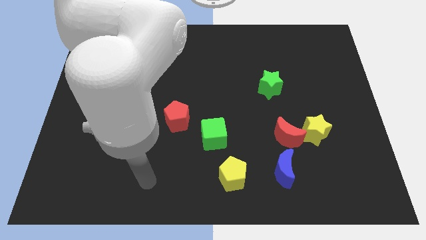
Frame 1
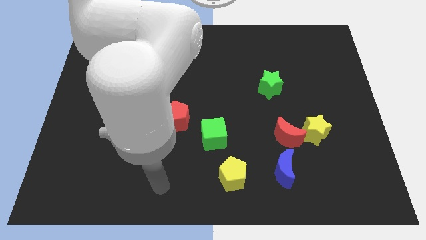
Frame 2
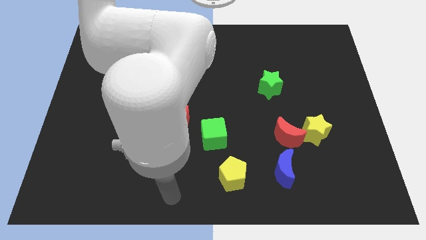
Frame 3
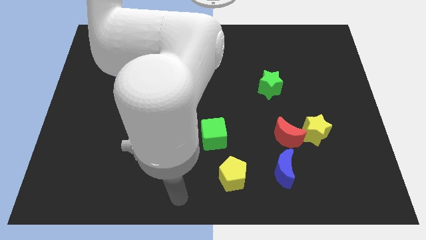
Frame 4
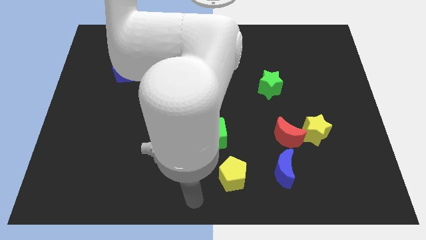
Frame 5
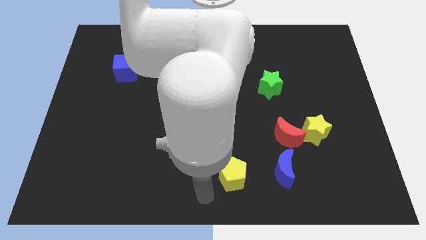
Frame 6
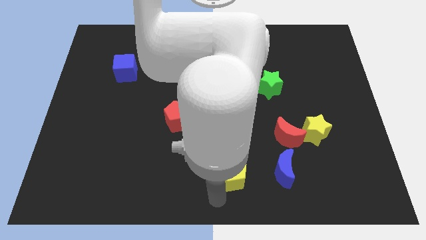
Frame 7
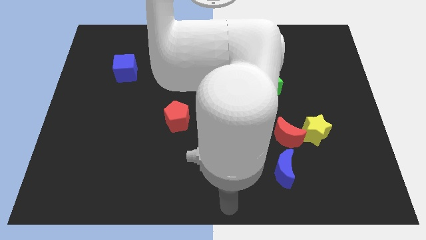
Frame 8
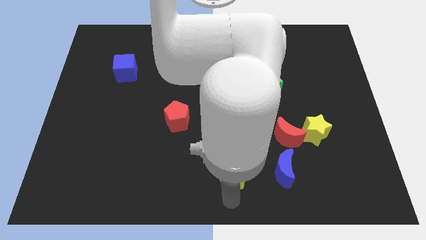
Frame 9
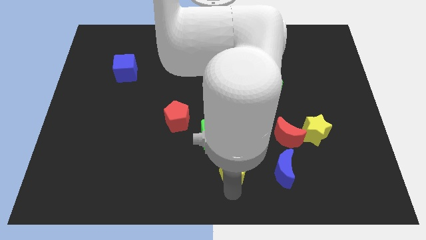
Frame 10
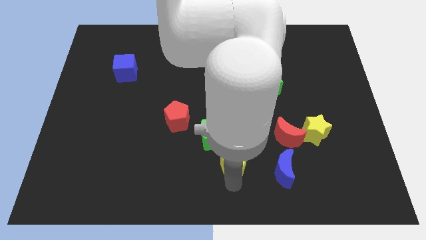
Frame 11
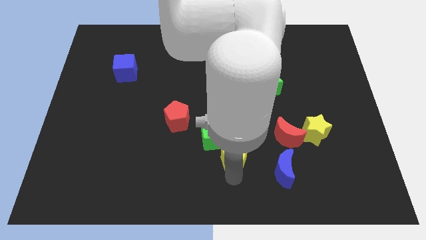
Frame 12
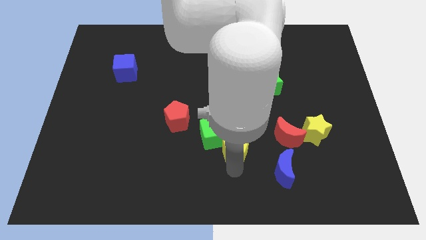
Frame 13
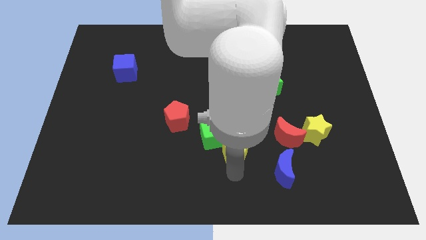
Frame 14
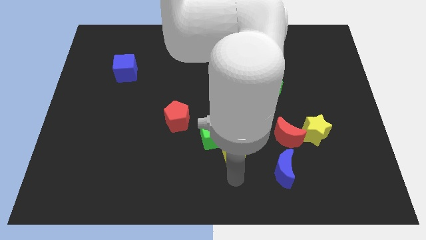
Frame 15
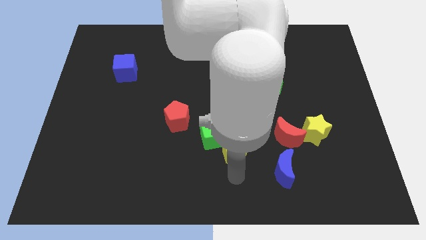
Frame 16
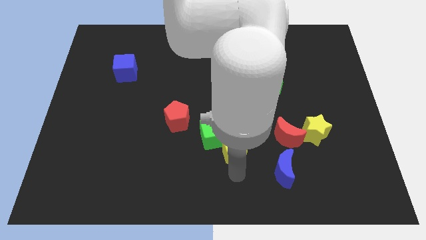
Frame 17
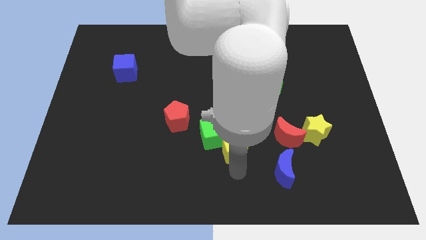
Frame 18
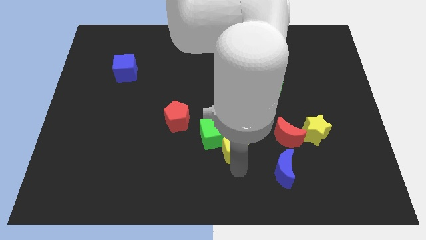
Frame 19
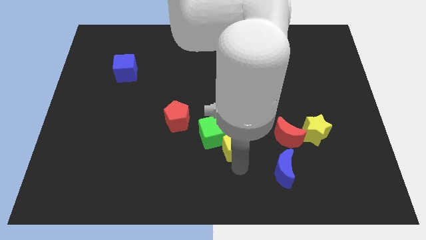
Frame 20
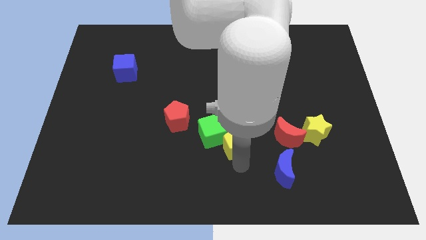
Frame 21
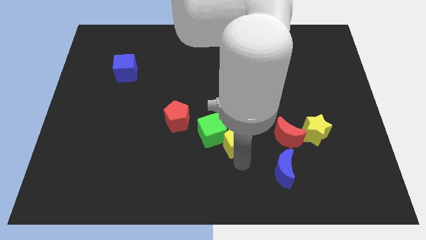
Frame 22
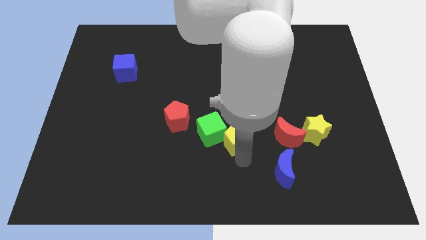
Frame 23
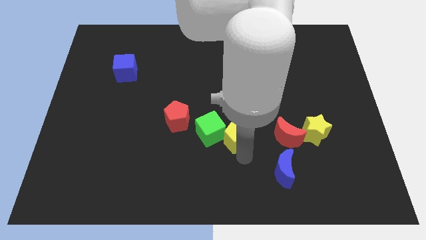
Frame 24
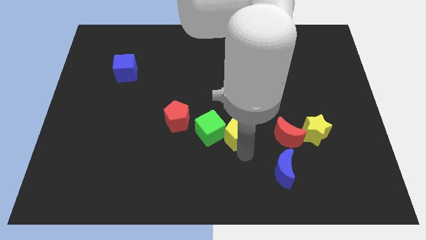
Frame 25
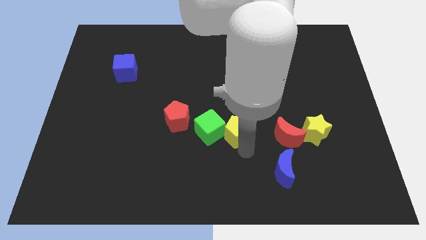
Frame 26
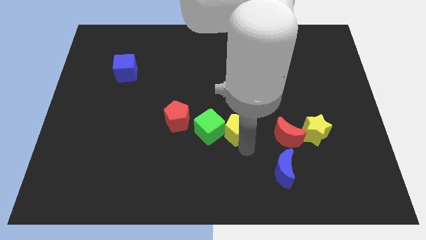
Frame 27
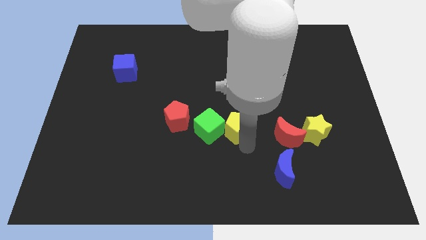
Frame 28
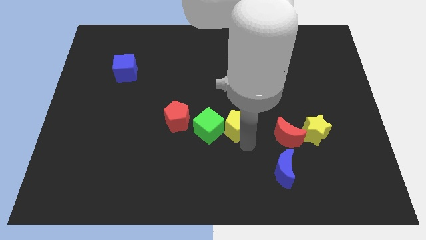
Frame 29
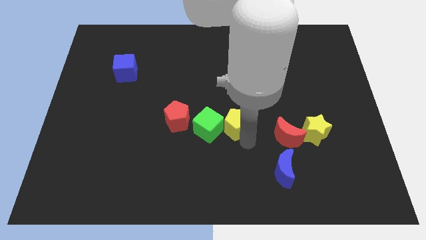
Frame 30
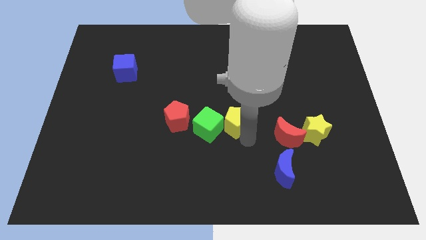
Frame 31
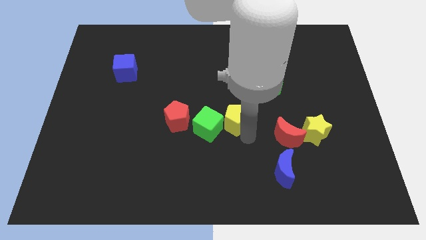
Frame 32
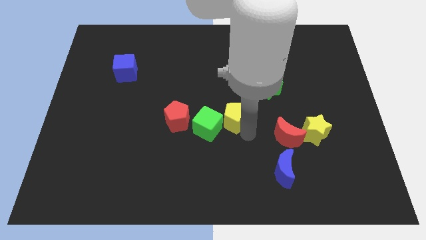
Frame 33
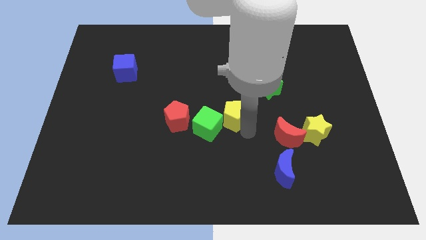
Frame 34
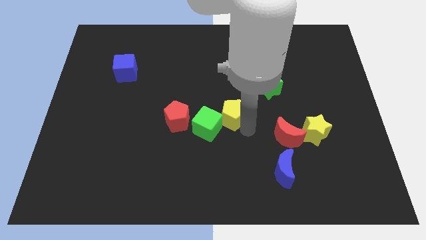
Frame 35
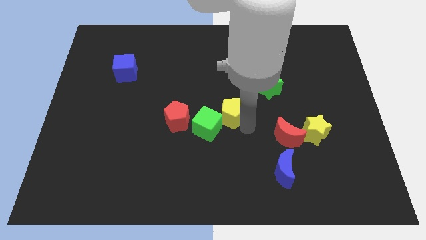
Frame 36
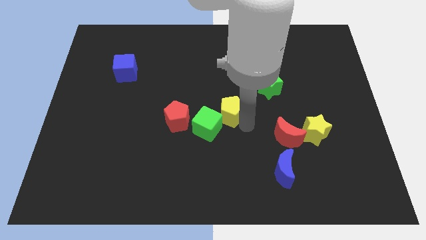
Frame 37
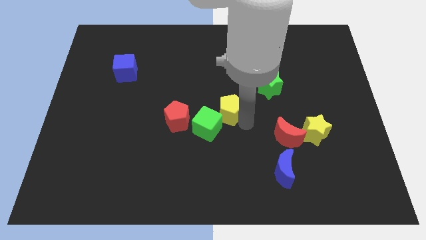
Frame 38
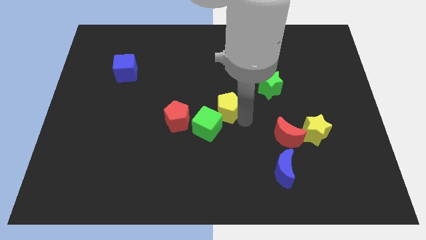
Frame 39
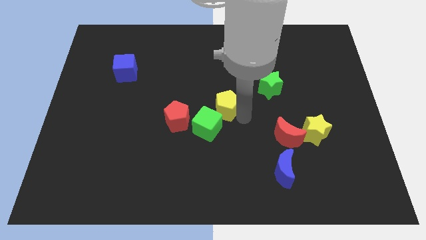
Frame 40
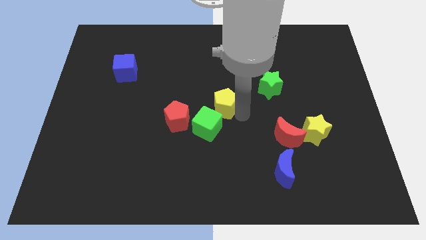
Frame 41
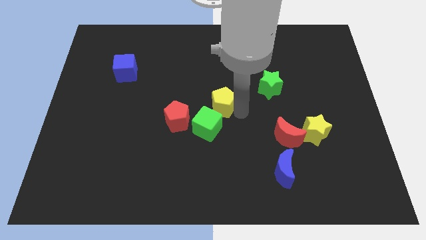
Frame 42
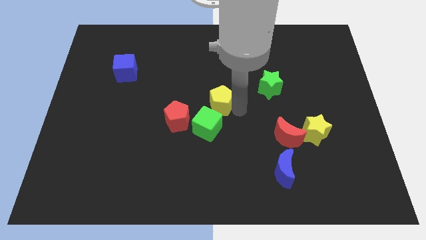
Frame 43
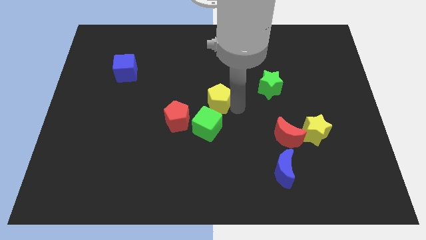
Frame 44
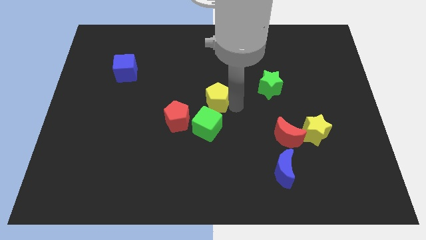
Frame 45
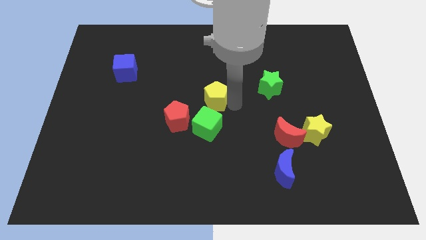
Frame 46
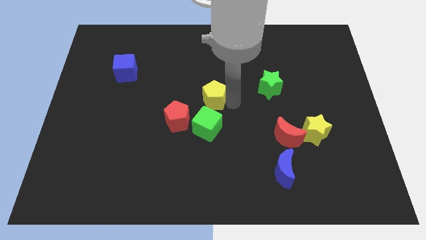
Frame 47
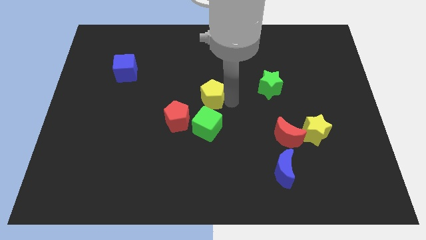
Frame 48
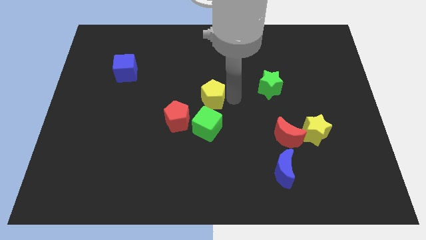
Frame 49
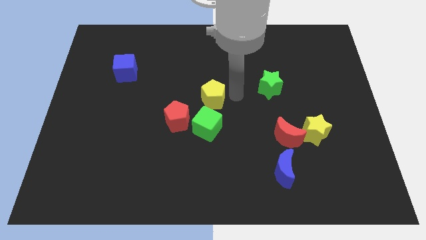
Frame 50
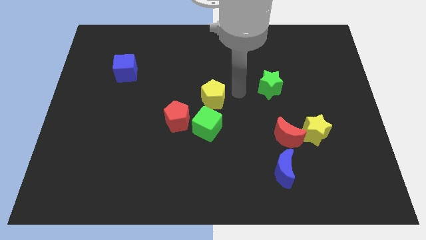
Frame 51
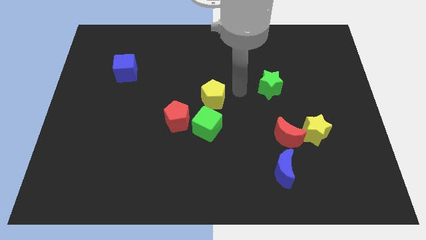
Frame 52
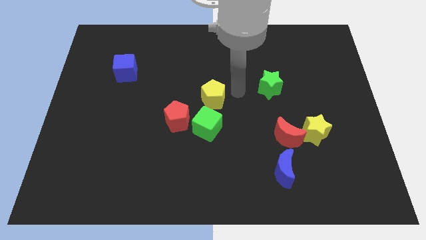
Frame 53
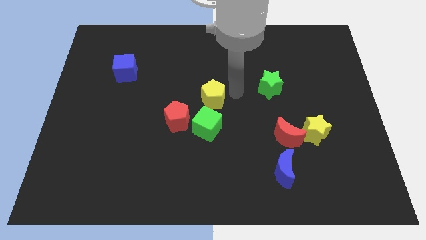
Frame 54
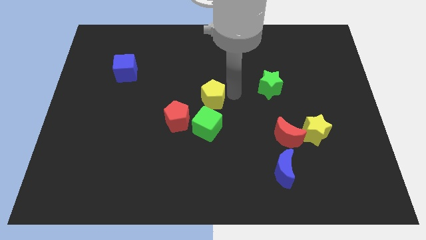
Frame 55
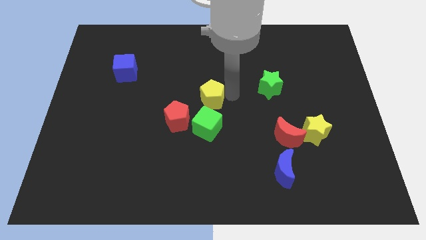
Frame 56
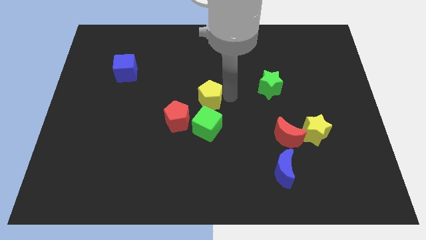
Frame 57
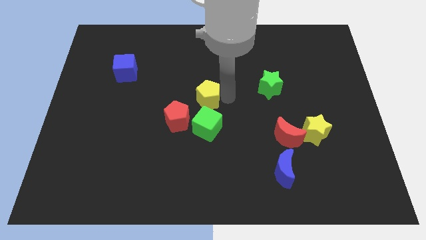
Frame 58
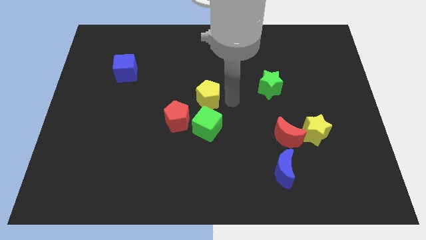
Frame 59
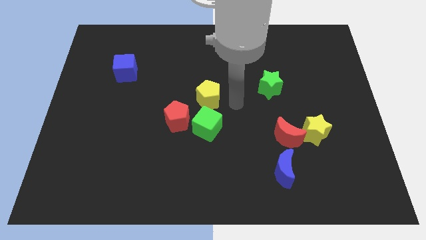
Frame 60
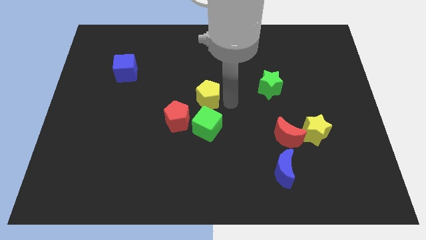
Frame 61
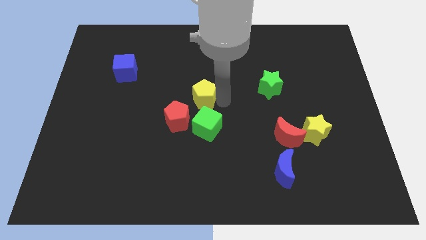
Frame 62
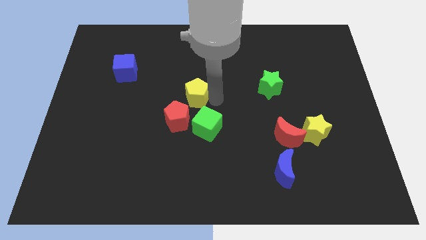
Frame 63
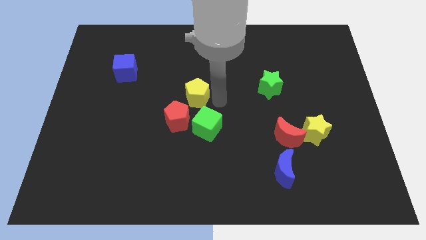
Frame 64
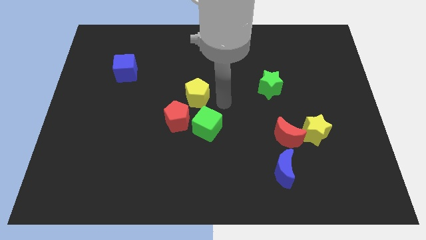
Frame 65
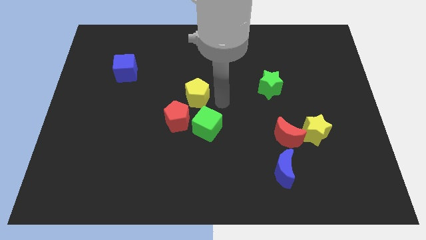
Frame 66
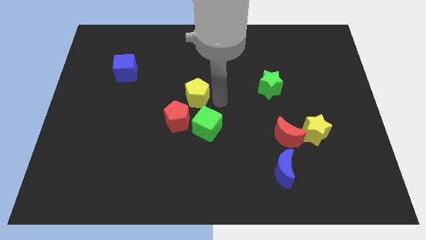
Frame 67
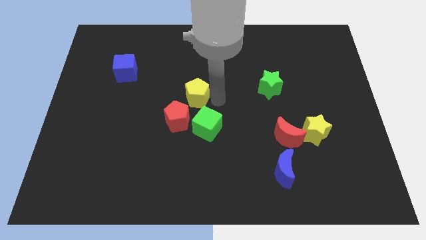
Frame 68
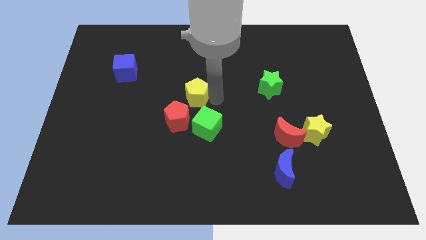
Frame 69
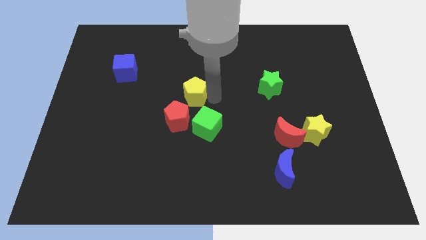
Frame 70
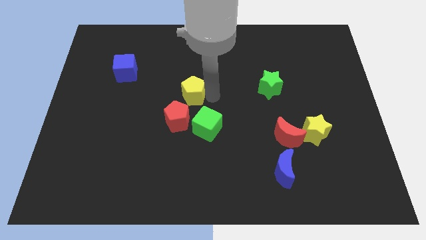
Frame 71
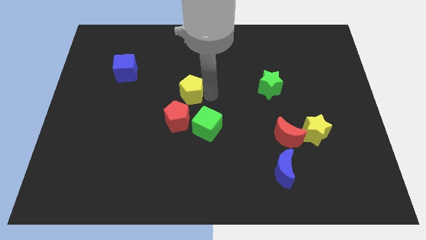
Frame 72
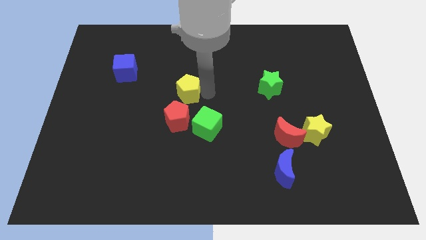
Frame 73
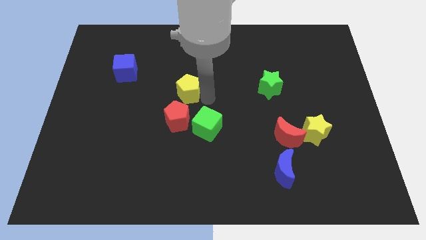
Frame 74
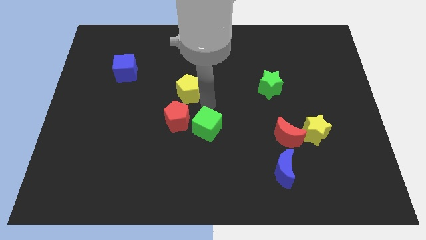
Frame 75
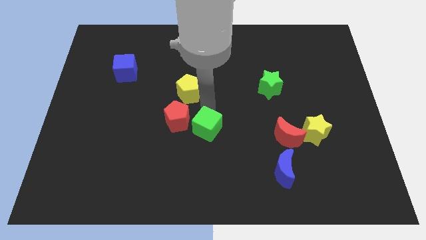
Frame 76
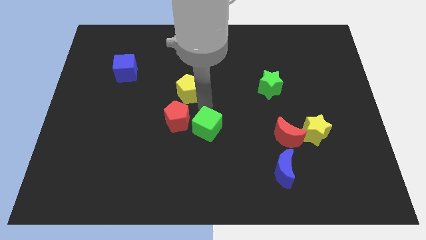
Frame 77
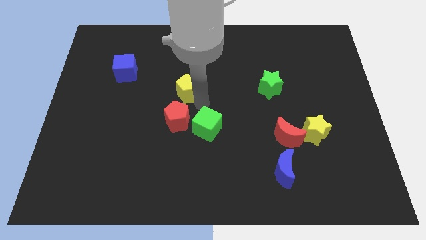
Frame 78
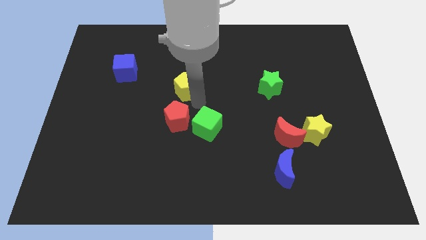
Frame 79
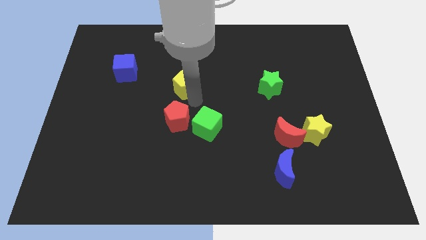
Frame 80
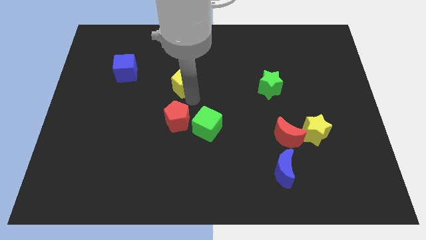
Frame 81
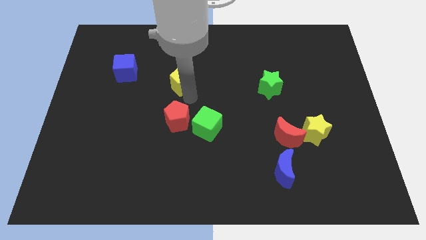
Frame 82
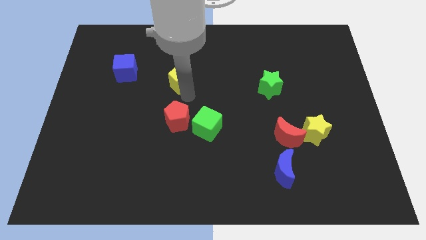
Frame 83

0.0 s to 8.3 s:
put the yellow pentagon just right of the blue cube
